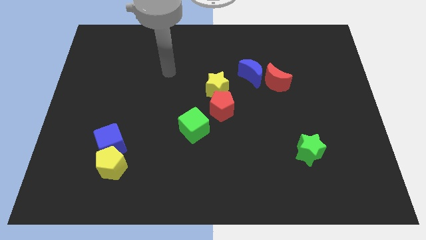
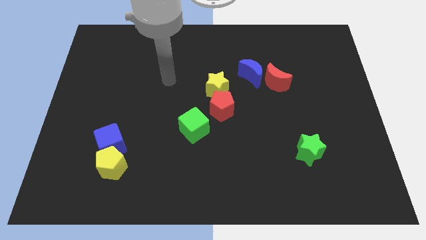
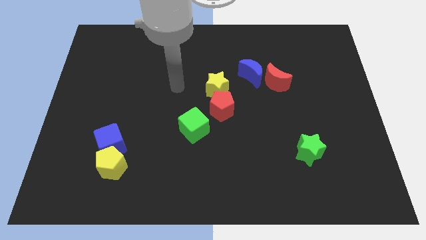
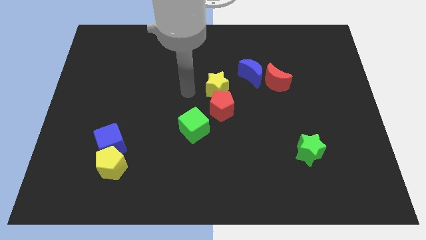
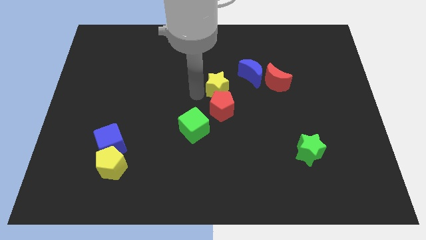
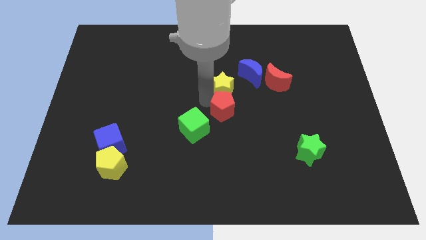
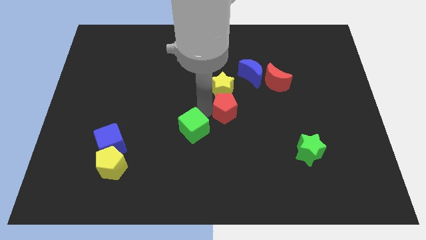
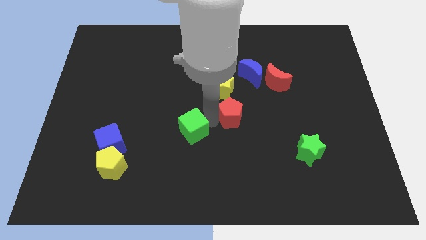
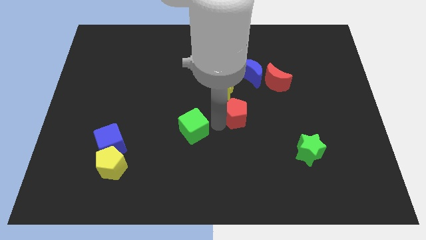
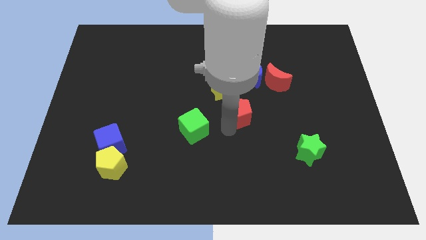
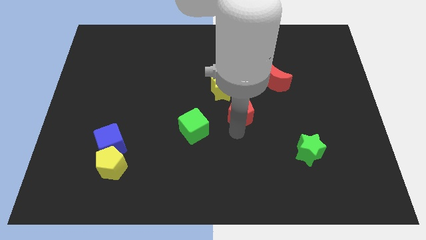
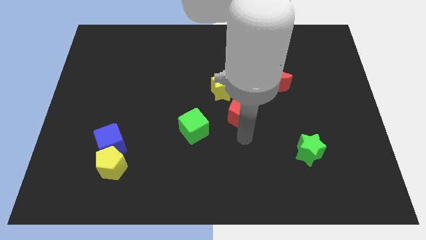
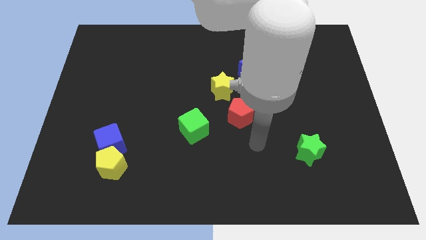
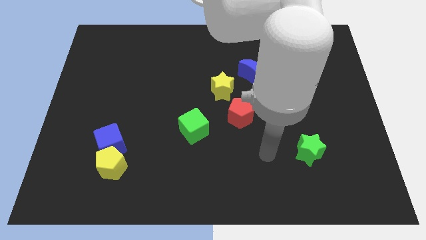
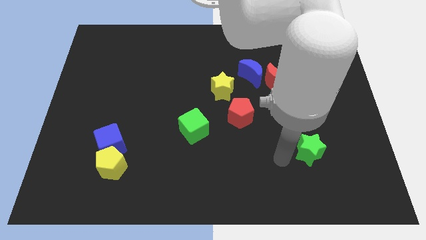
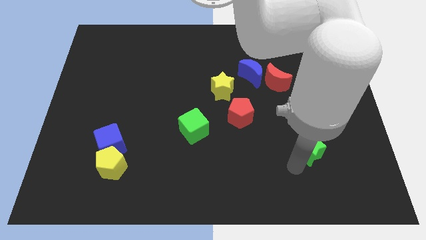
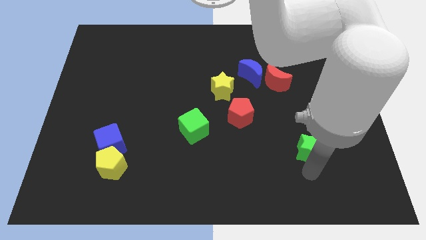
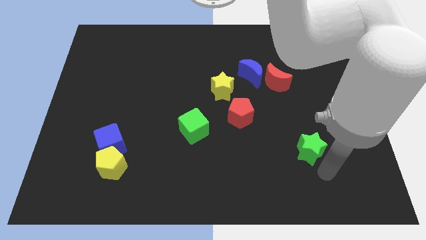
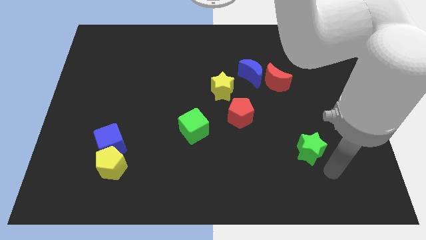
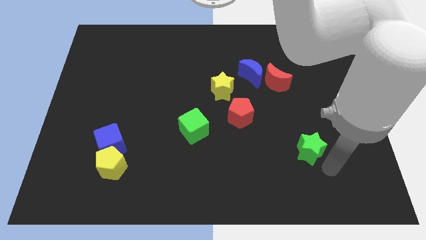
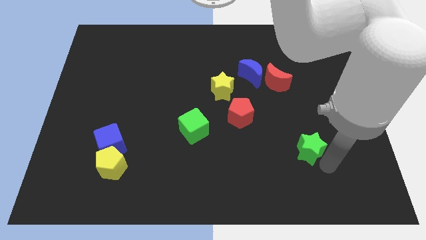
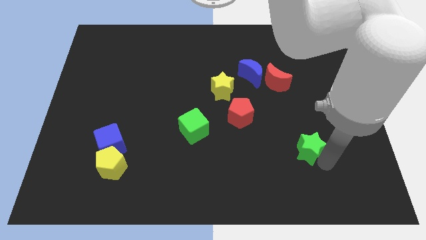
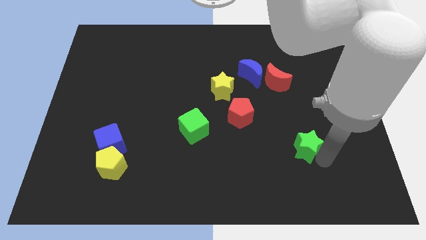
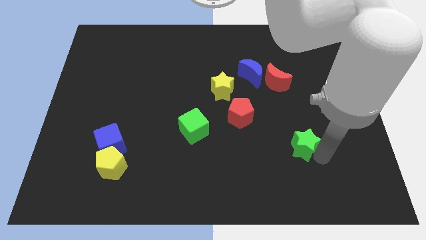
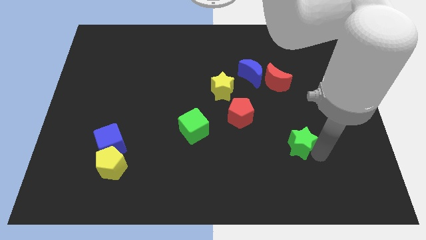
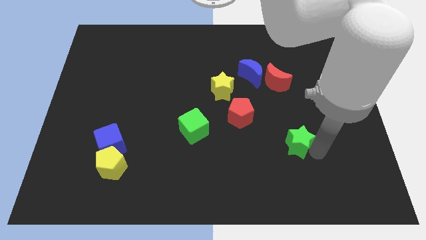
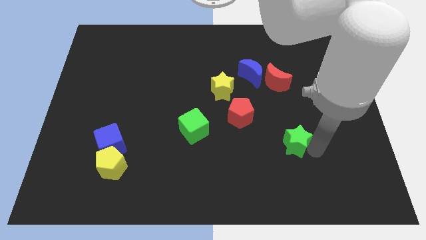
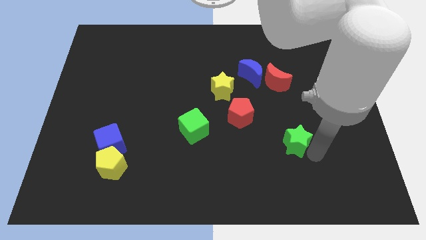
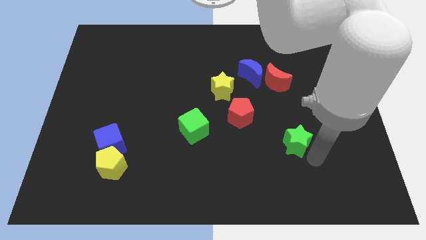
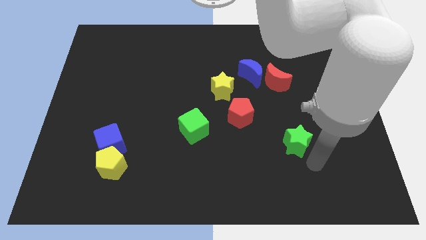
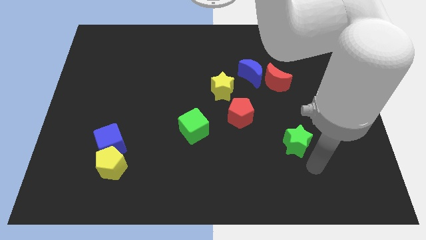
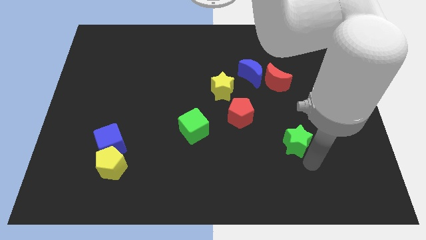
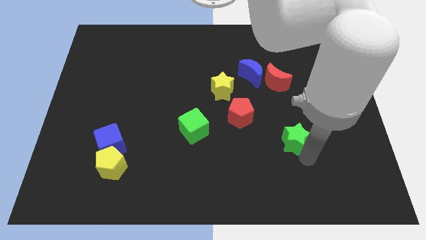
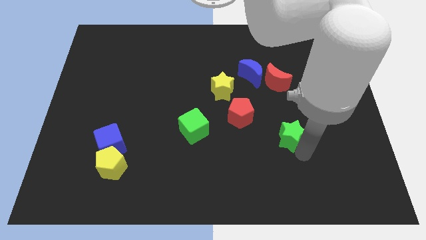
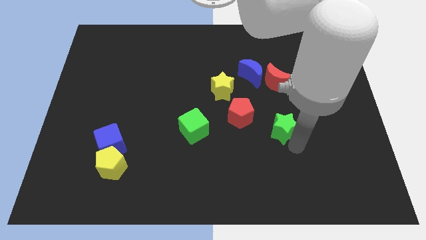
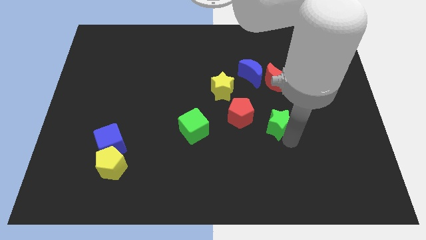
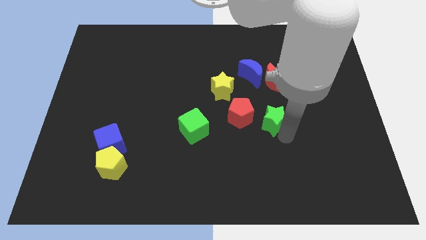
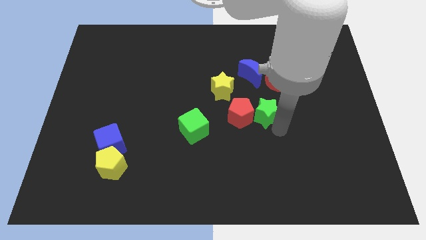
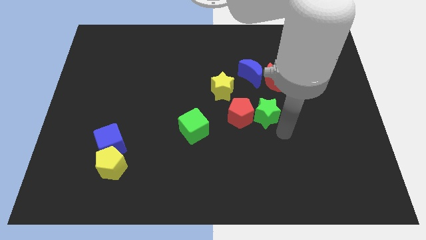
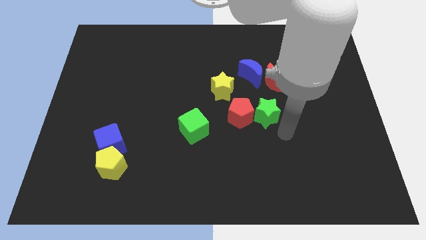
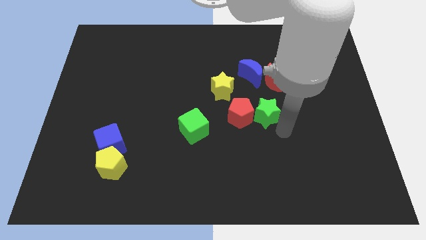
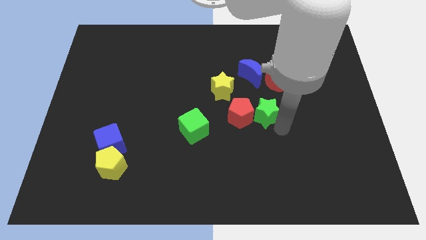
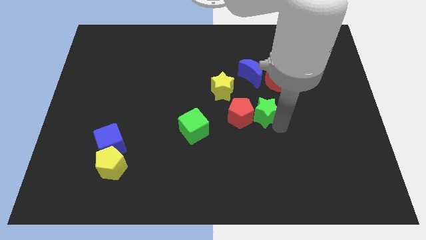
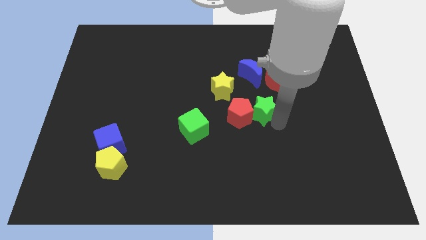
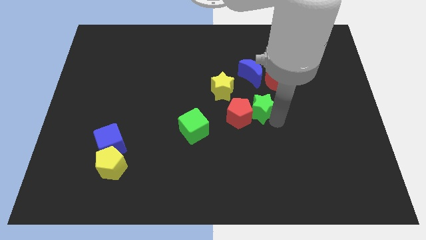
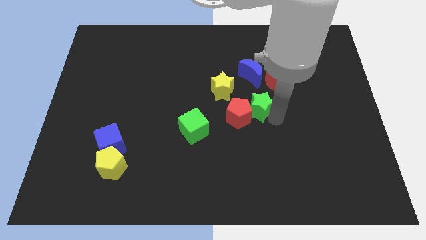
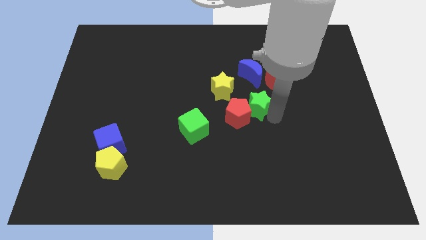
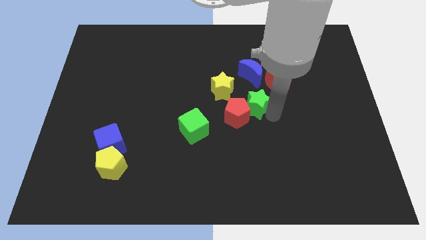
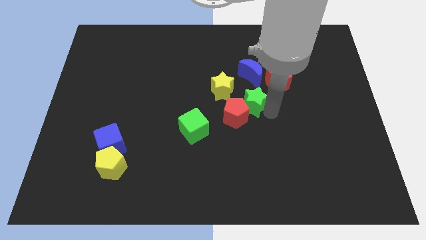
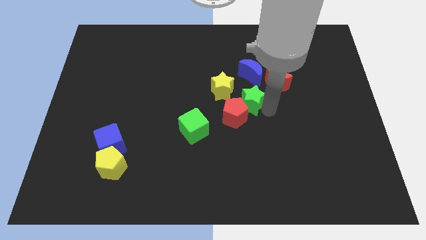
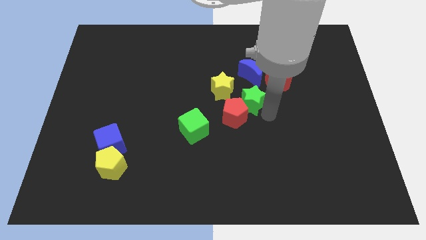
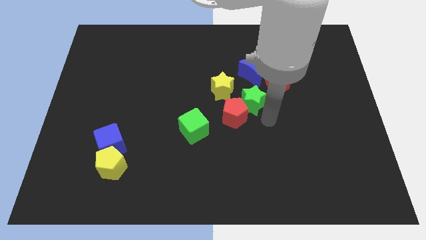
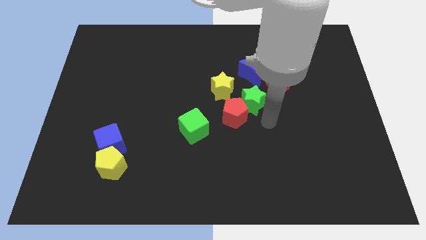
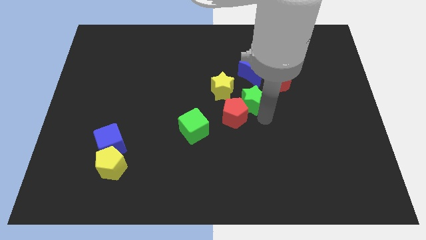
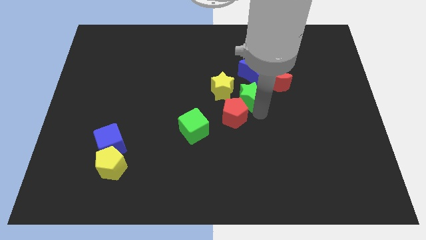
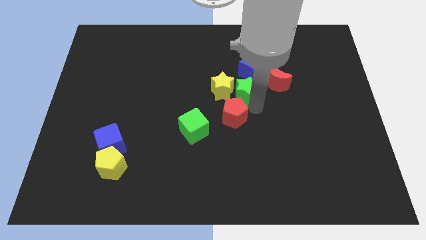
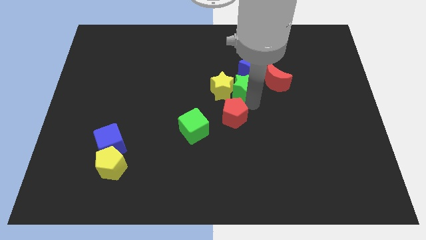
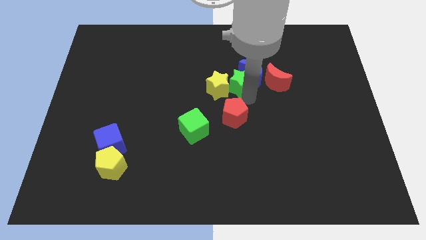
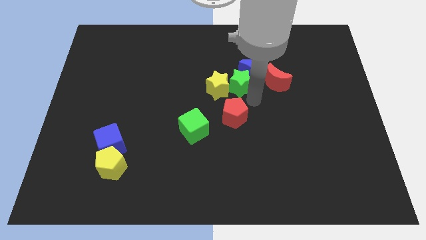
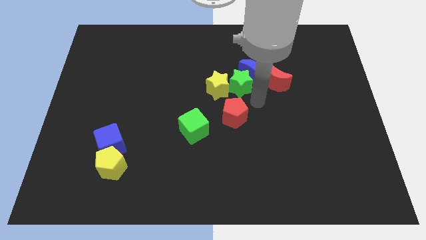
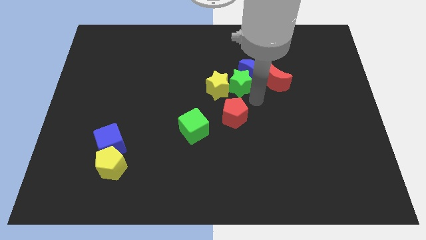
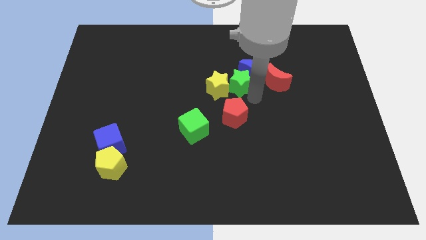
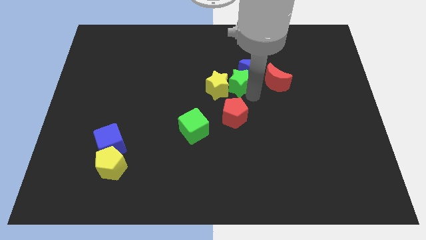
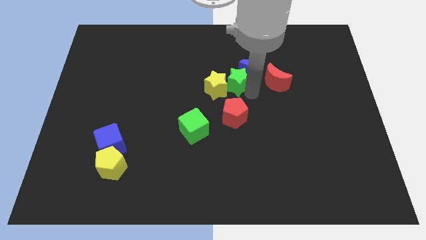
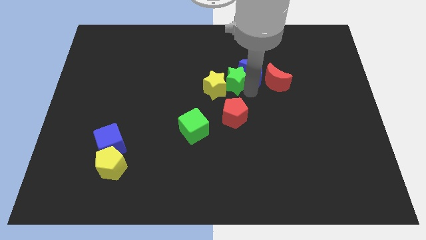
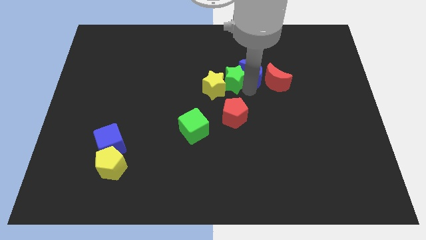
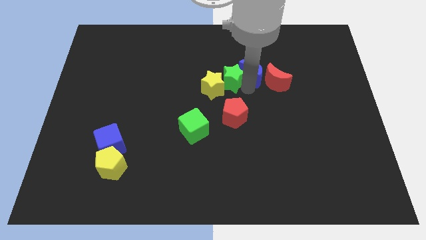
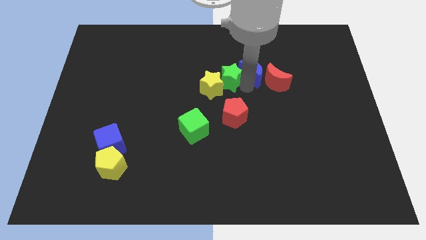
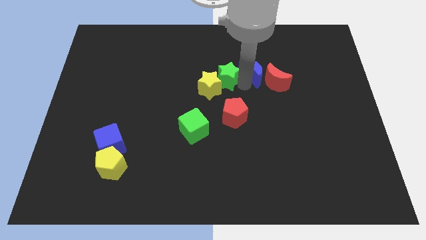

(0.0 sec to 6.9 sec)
push the green star to the top of the yellow star

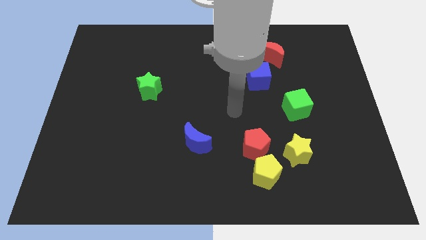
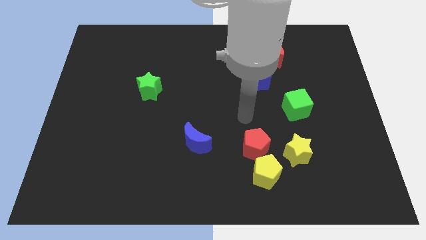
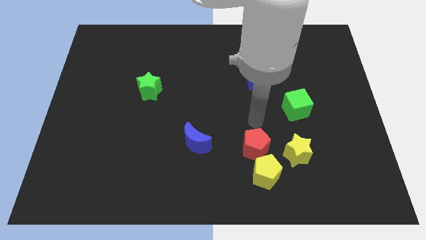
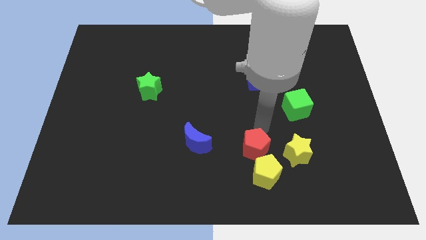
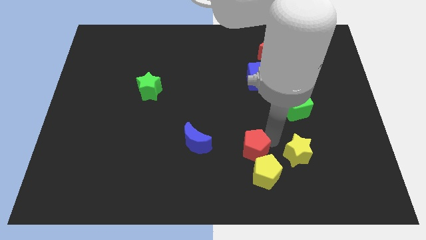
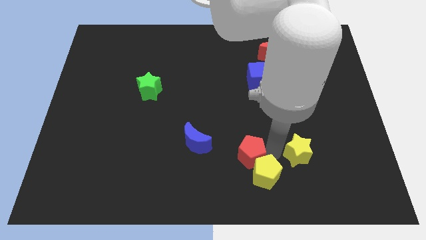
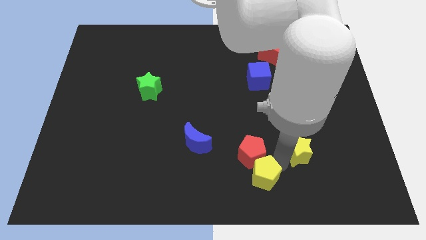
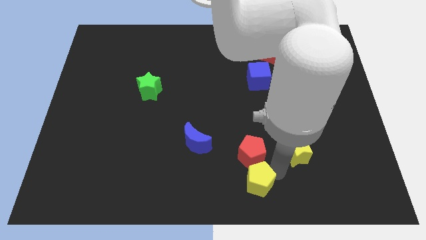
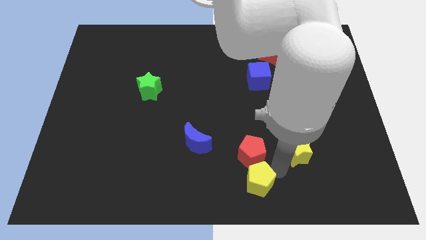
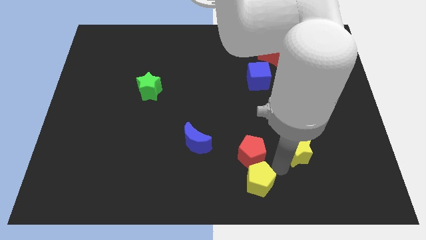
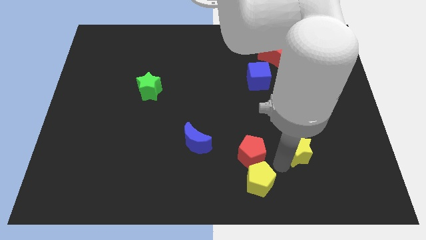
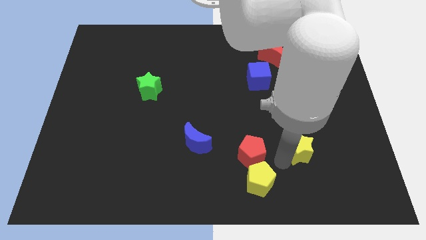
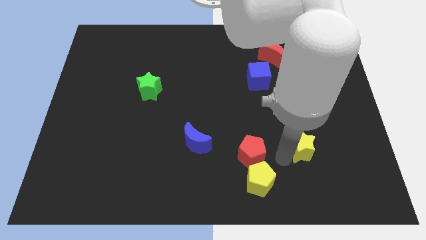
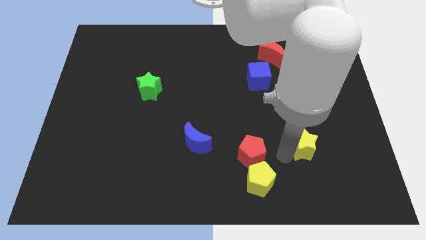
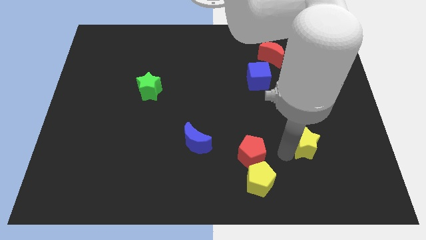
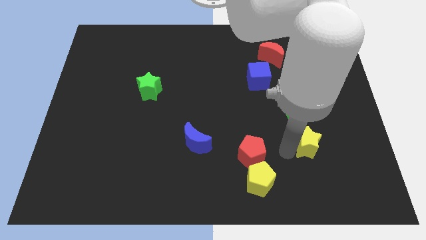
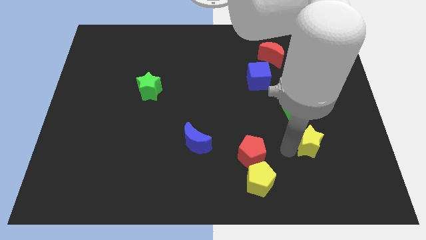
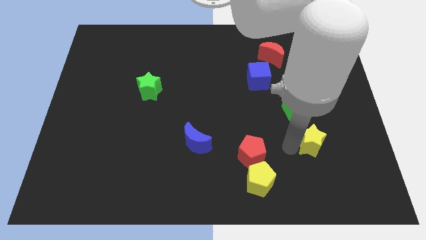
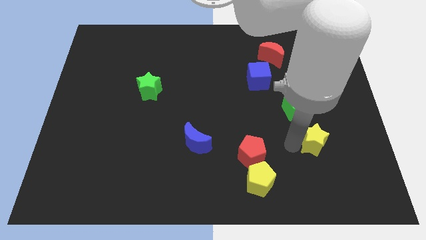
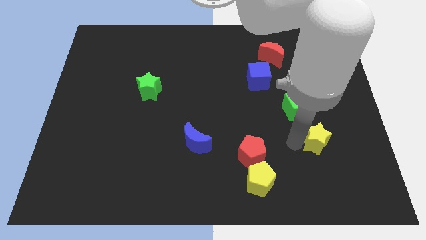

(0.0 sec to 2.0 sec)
push the yellow star to the bottom right side of the green cube
